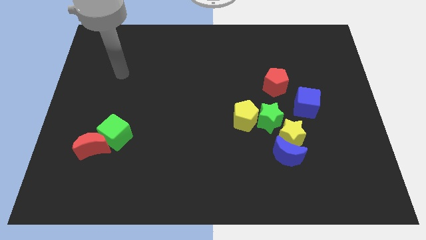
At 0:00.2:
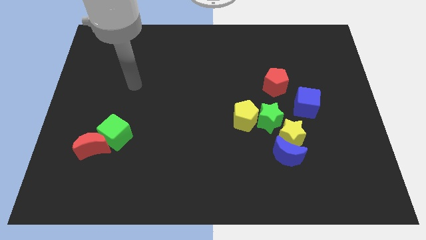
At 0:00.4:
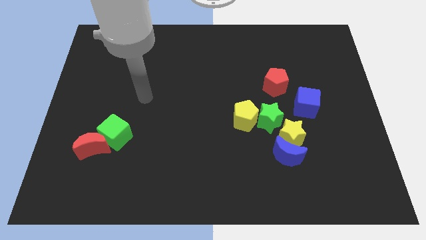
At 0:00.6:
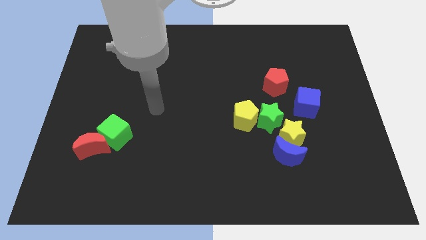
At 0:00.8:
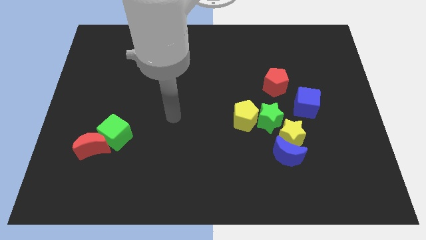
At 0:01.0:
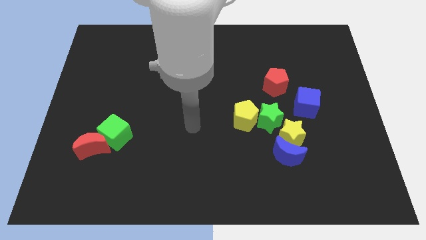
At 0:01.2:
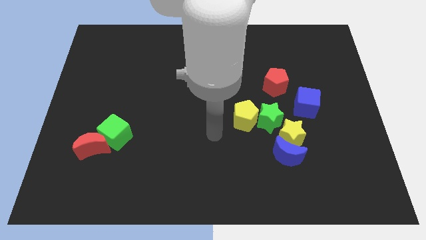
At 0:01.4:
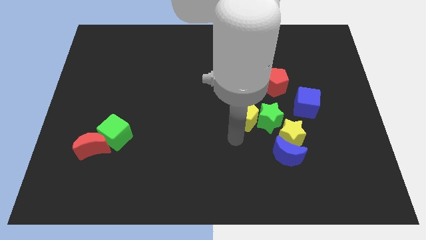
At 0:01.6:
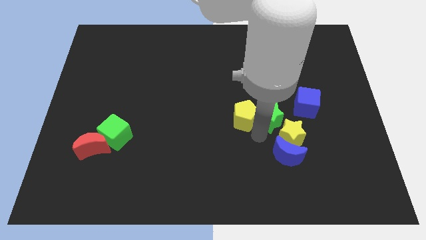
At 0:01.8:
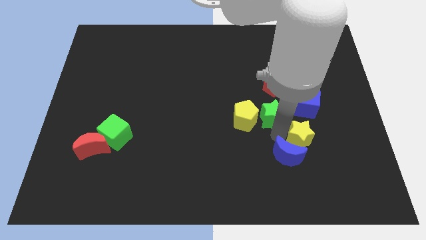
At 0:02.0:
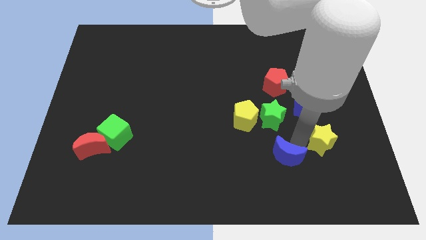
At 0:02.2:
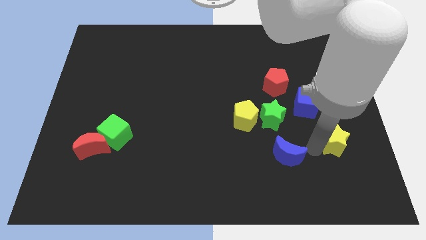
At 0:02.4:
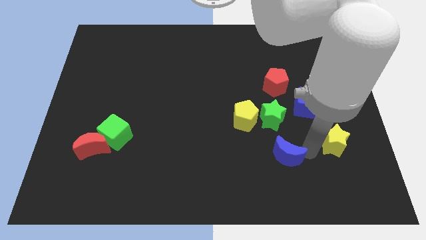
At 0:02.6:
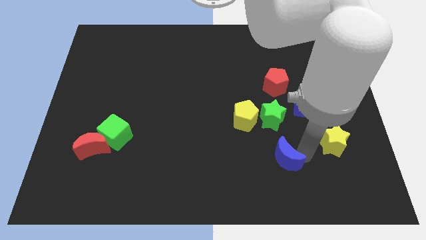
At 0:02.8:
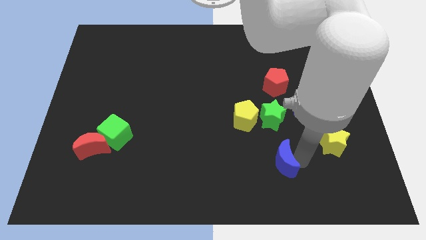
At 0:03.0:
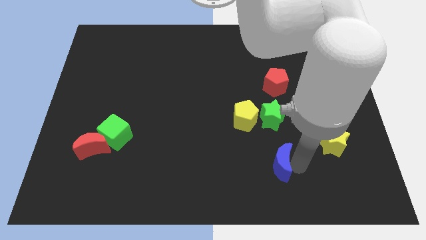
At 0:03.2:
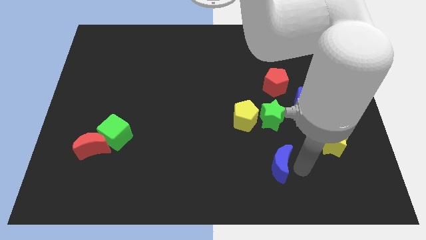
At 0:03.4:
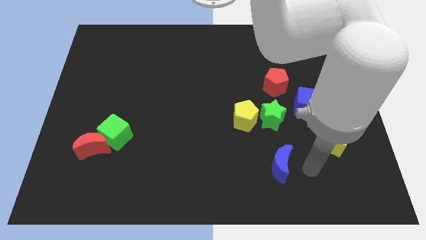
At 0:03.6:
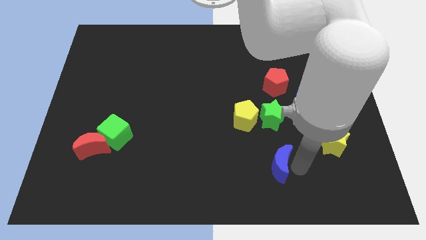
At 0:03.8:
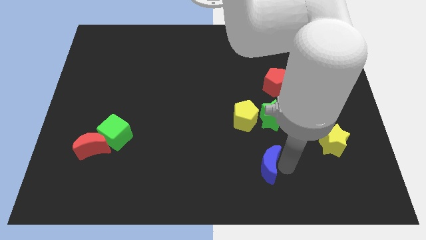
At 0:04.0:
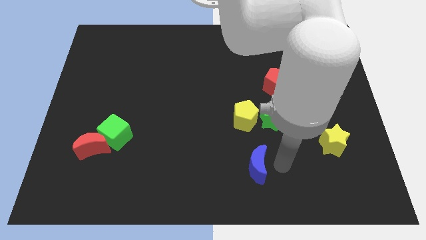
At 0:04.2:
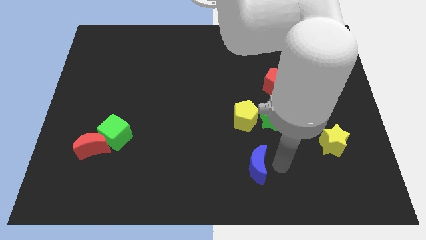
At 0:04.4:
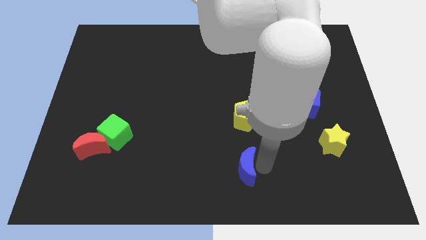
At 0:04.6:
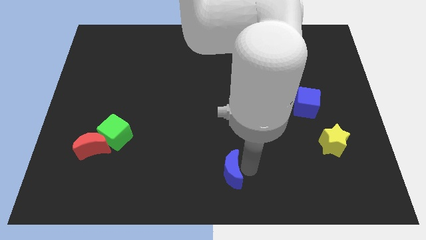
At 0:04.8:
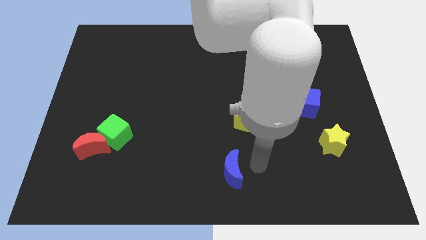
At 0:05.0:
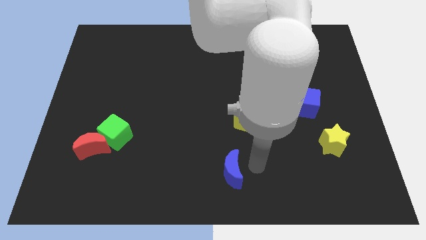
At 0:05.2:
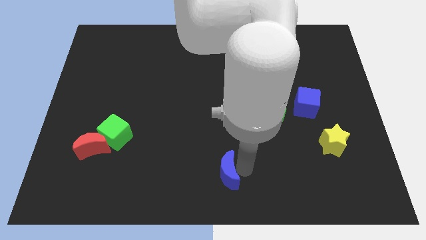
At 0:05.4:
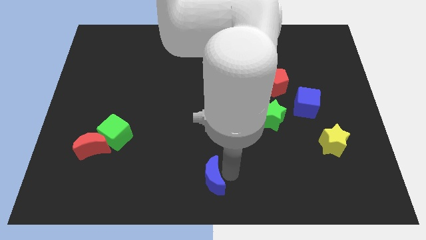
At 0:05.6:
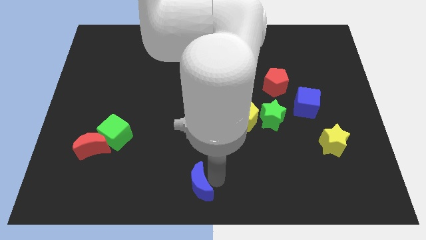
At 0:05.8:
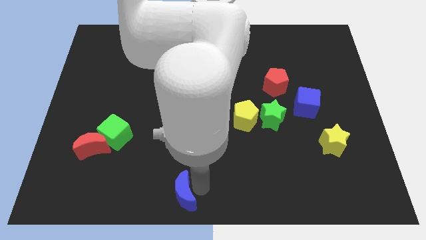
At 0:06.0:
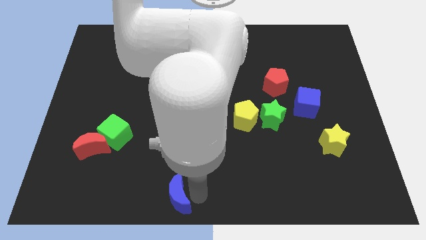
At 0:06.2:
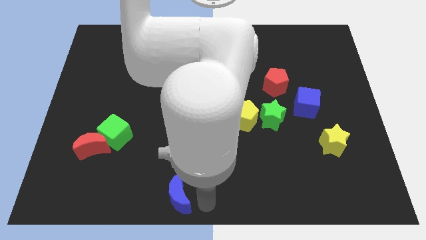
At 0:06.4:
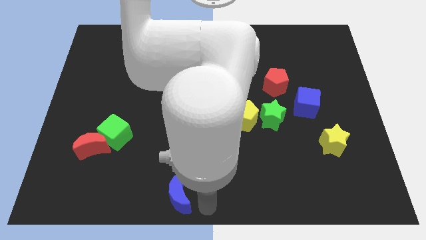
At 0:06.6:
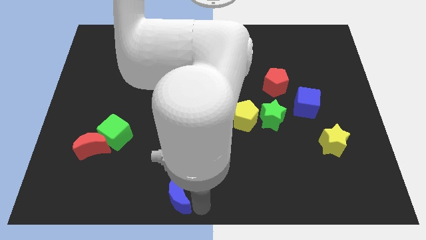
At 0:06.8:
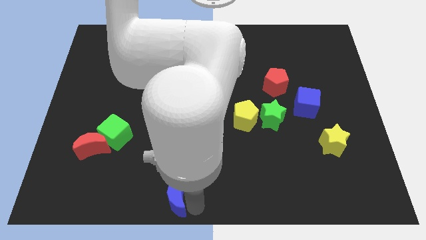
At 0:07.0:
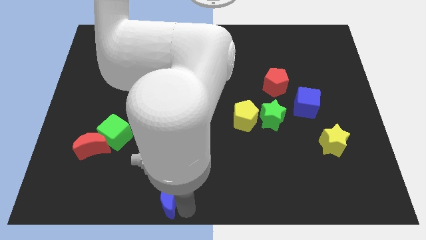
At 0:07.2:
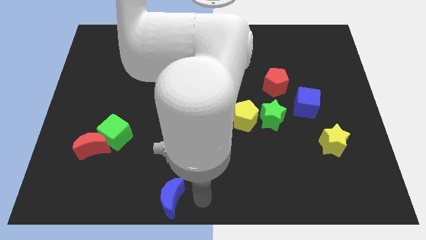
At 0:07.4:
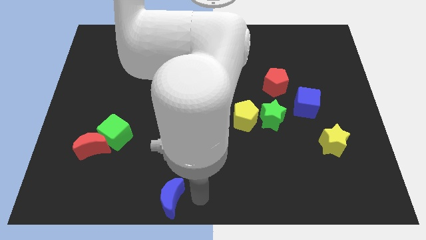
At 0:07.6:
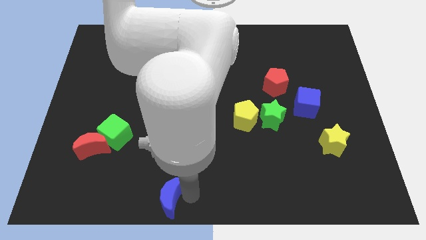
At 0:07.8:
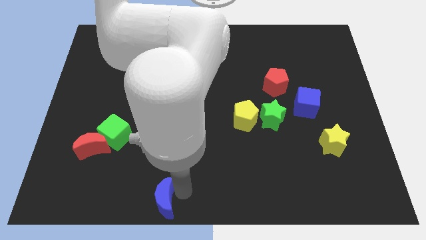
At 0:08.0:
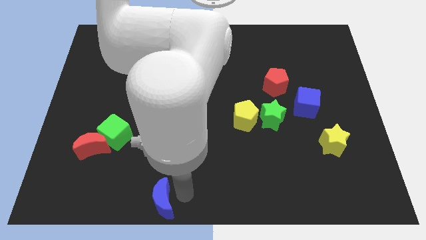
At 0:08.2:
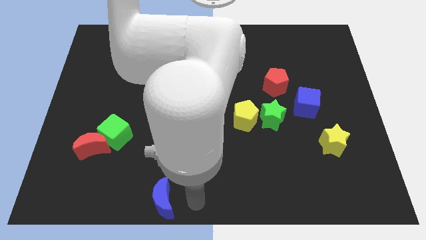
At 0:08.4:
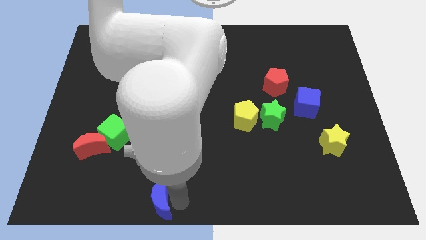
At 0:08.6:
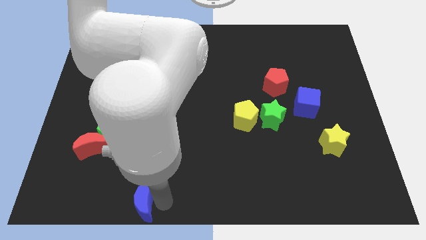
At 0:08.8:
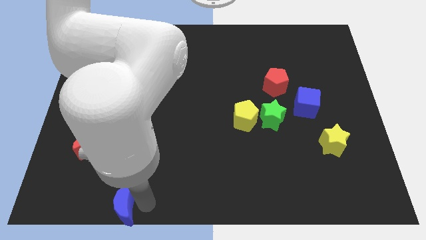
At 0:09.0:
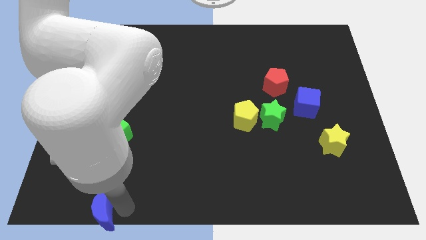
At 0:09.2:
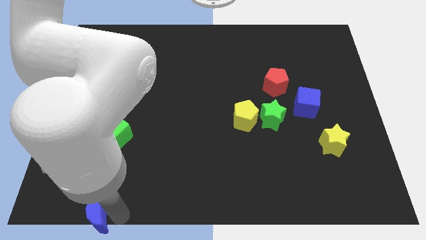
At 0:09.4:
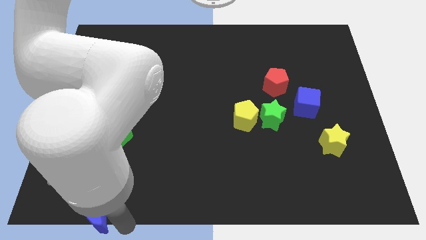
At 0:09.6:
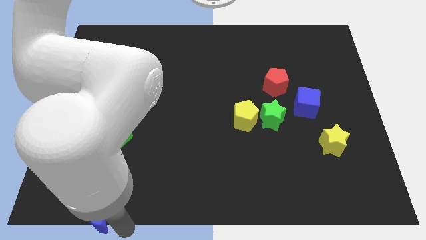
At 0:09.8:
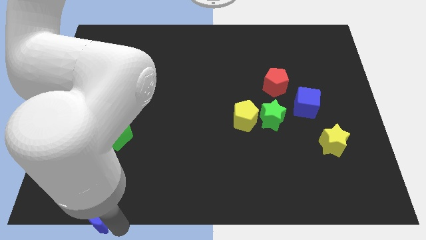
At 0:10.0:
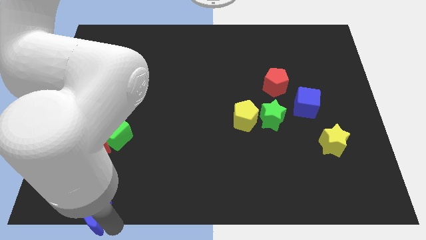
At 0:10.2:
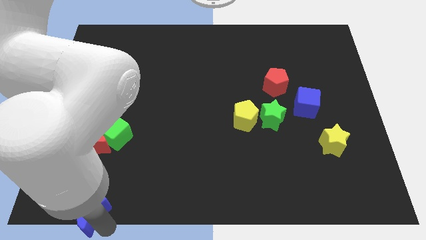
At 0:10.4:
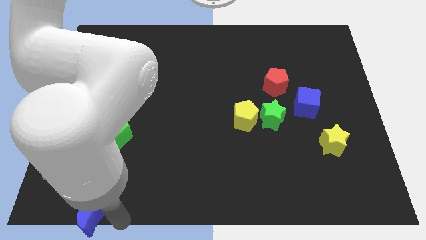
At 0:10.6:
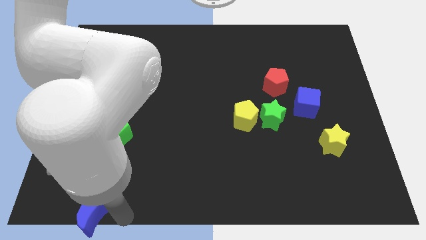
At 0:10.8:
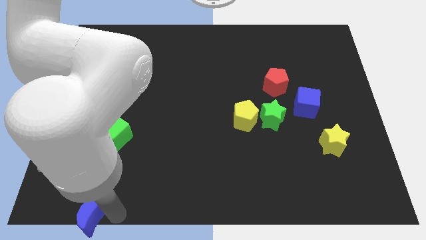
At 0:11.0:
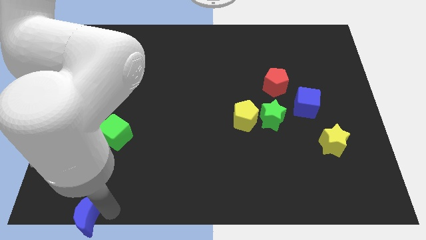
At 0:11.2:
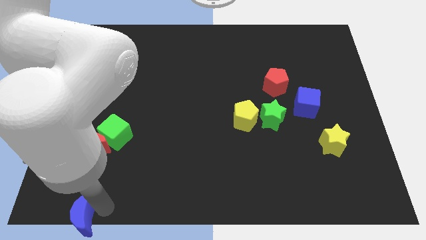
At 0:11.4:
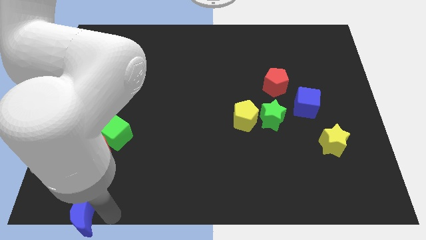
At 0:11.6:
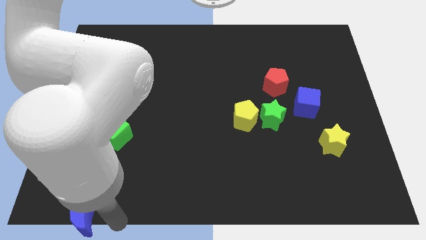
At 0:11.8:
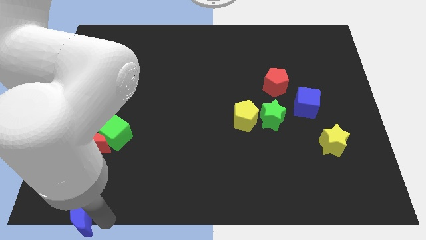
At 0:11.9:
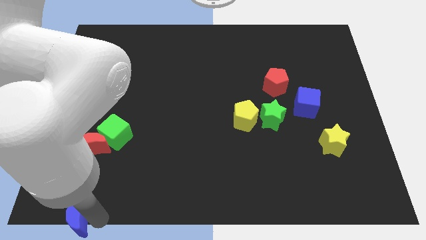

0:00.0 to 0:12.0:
move the blue moon to the bottom left of the board
